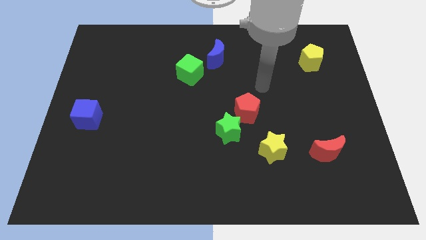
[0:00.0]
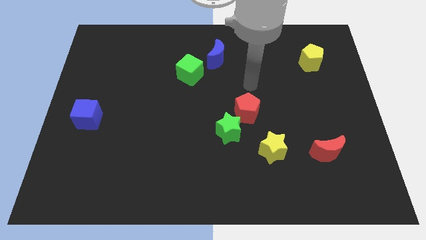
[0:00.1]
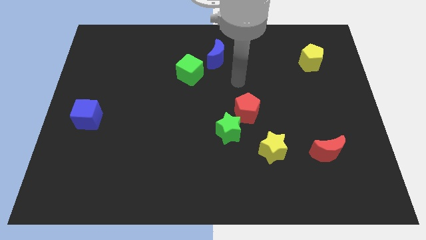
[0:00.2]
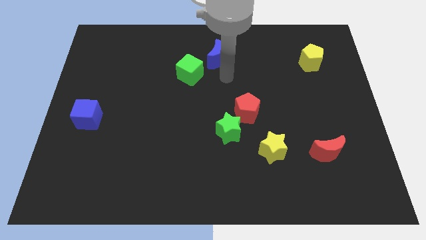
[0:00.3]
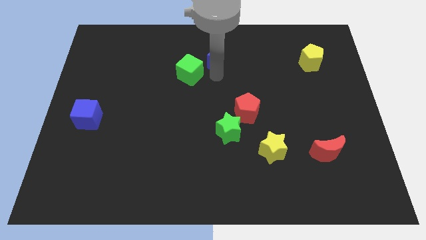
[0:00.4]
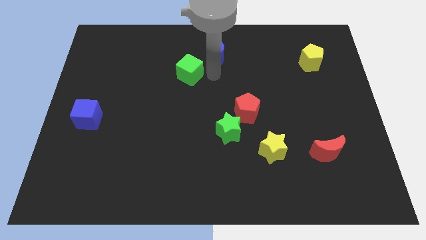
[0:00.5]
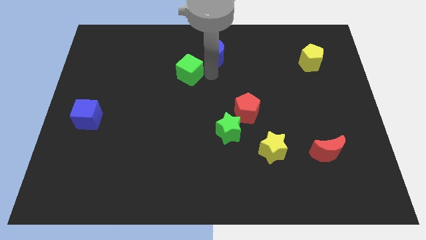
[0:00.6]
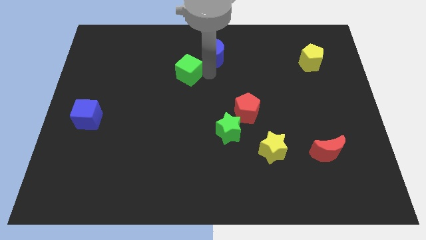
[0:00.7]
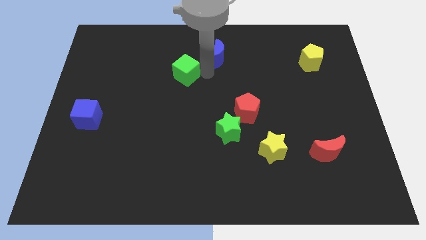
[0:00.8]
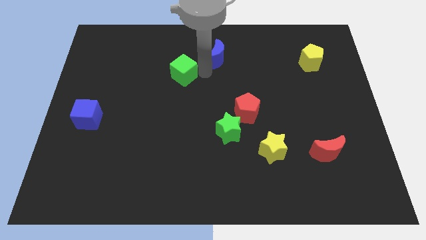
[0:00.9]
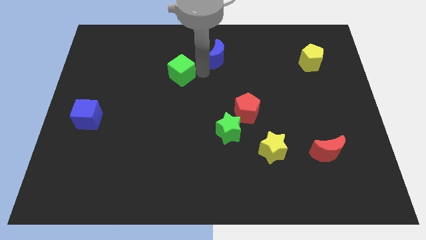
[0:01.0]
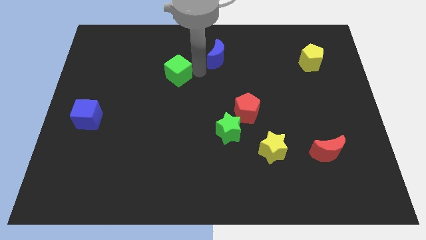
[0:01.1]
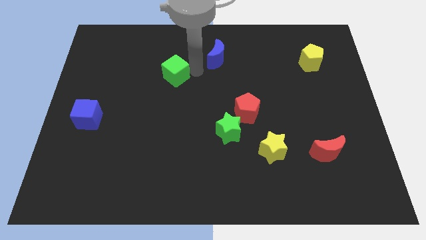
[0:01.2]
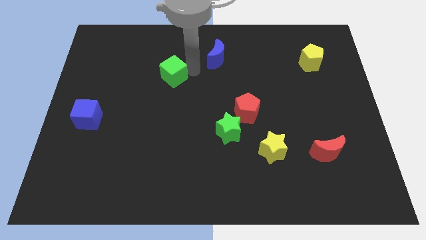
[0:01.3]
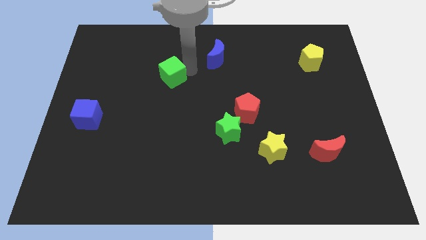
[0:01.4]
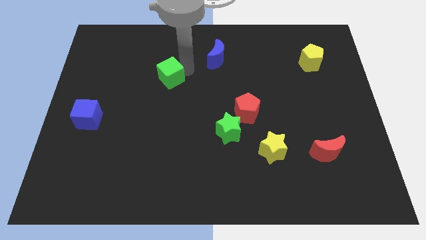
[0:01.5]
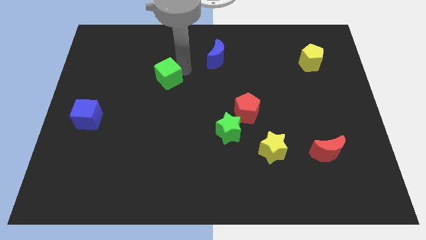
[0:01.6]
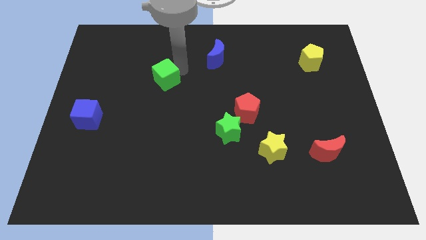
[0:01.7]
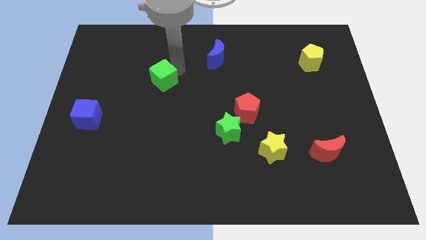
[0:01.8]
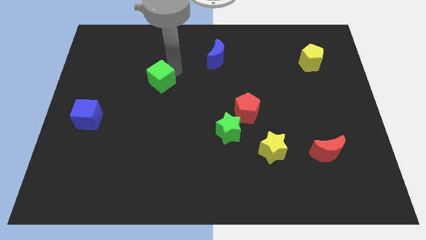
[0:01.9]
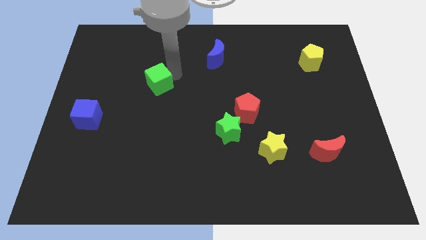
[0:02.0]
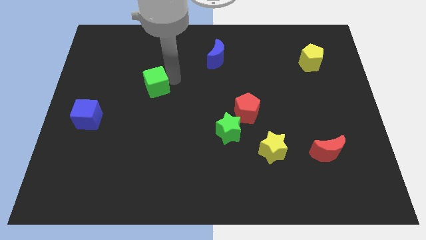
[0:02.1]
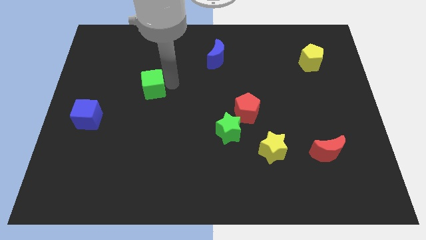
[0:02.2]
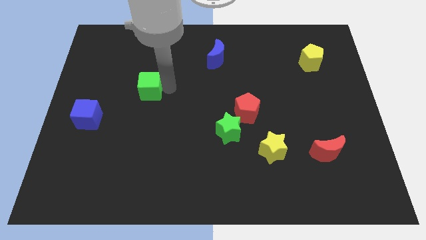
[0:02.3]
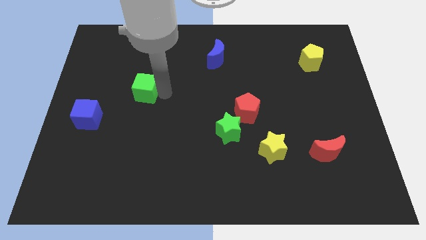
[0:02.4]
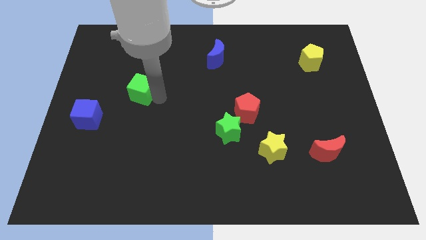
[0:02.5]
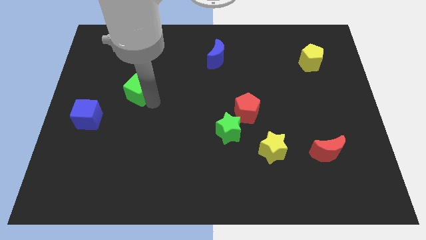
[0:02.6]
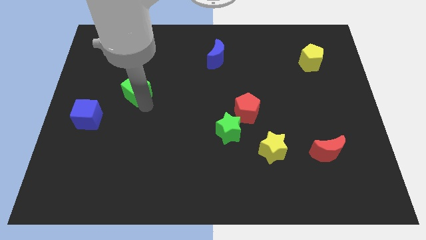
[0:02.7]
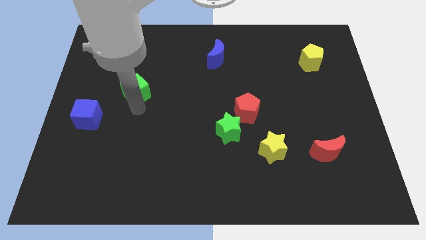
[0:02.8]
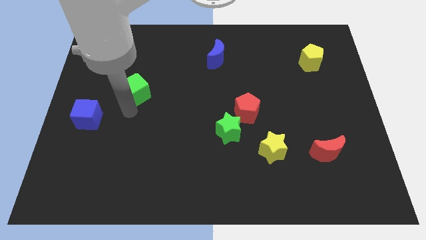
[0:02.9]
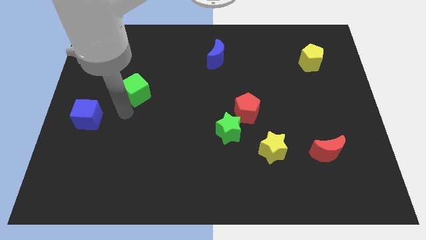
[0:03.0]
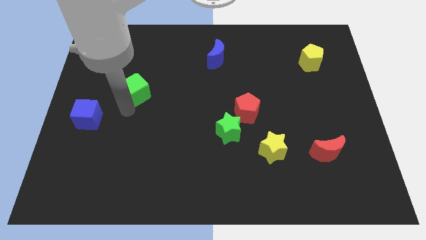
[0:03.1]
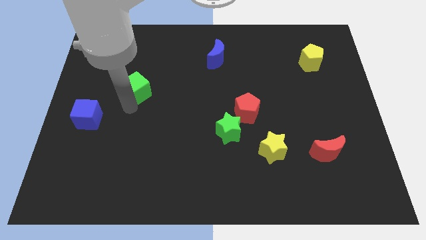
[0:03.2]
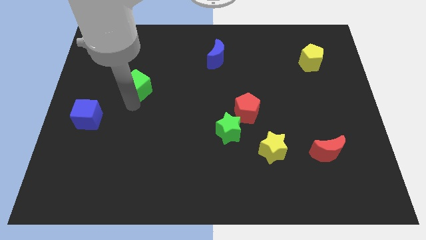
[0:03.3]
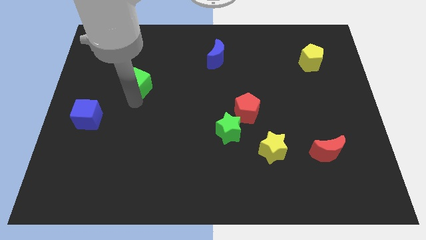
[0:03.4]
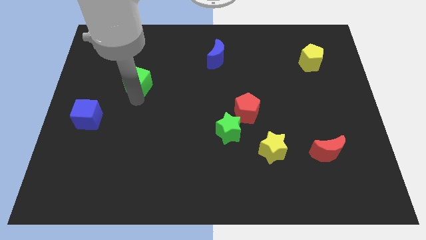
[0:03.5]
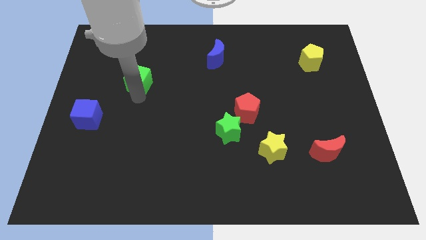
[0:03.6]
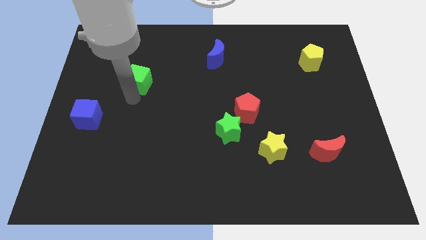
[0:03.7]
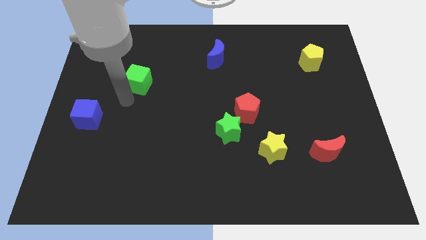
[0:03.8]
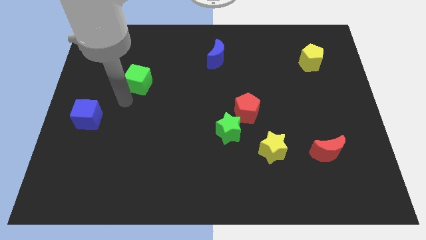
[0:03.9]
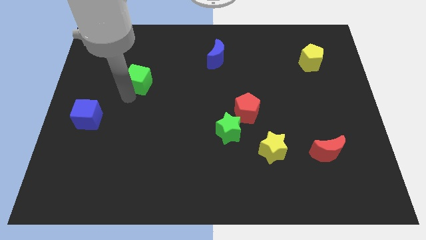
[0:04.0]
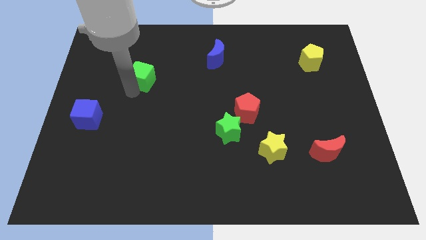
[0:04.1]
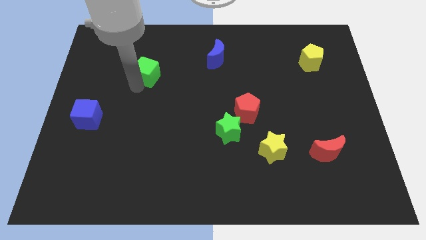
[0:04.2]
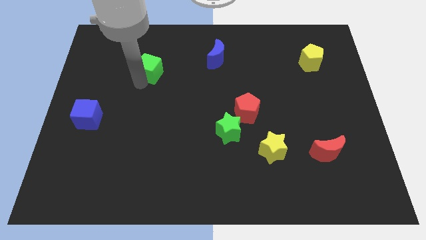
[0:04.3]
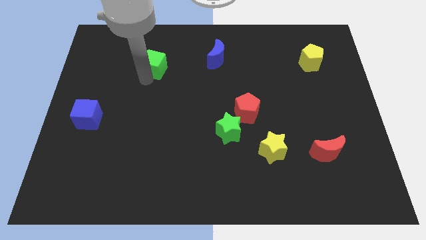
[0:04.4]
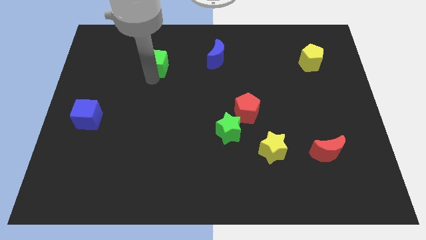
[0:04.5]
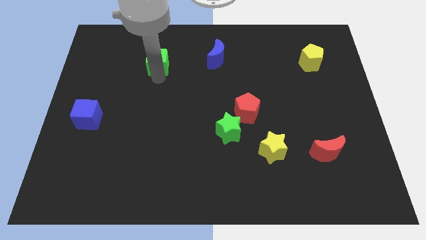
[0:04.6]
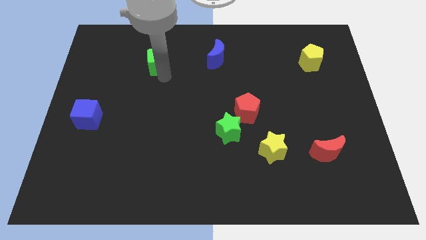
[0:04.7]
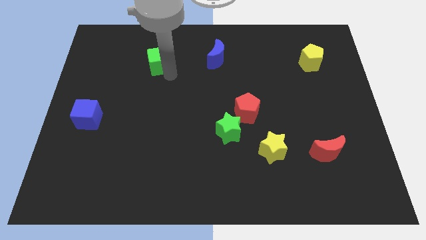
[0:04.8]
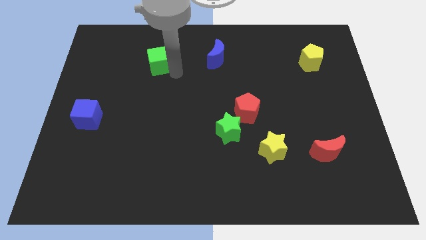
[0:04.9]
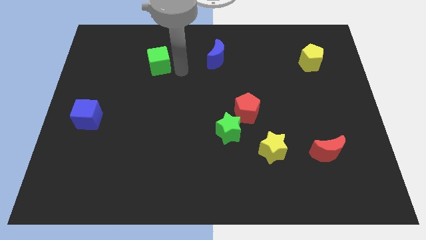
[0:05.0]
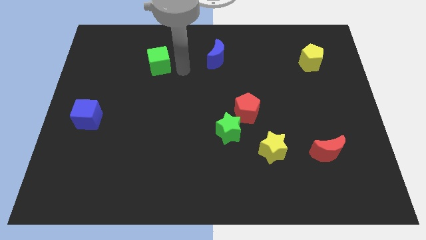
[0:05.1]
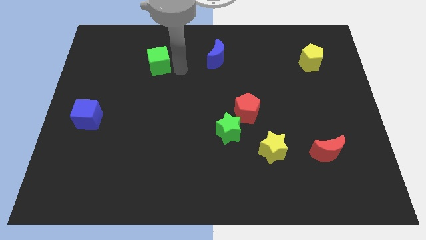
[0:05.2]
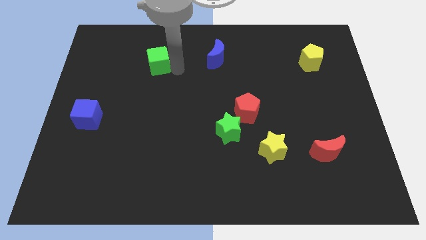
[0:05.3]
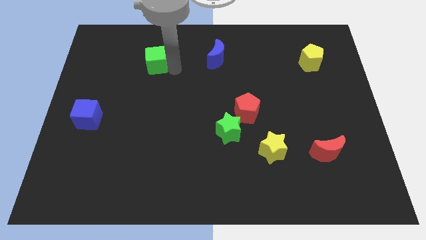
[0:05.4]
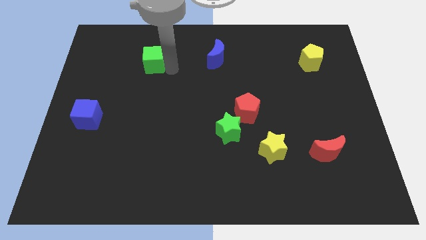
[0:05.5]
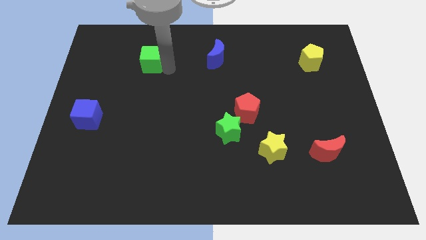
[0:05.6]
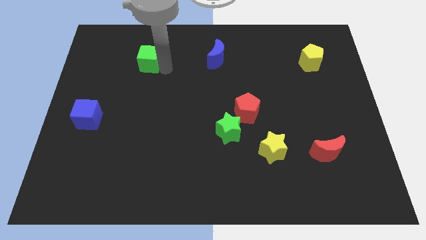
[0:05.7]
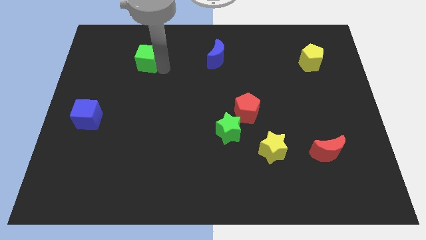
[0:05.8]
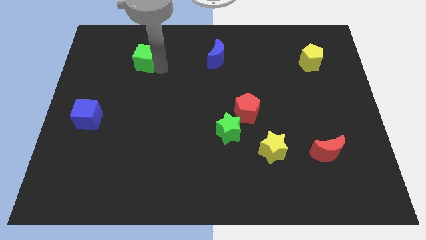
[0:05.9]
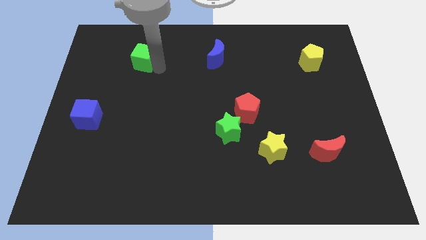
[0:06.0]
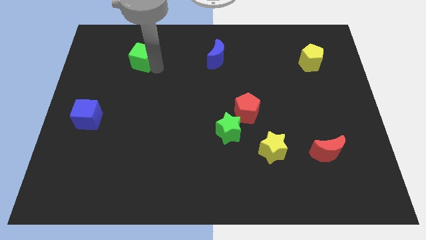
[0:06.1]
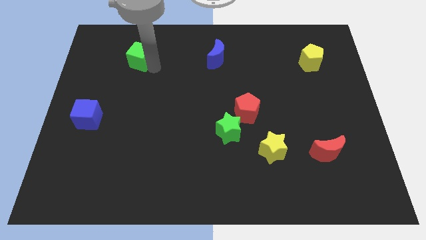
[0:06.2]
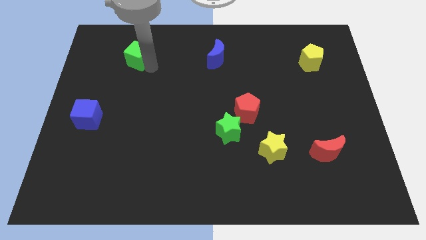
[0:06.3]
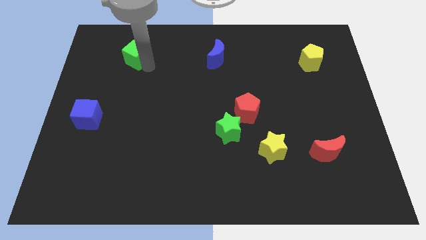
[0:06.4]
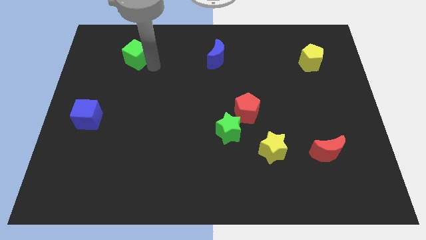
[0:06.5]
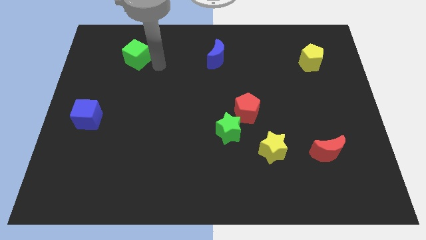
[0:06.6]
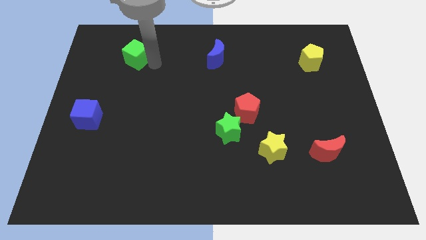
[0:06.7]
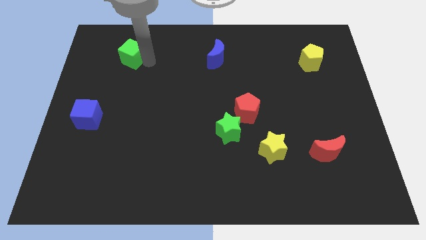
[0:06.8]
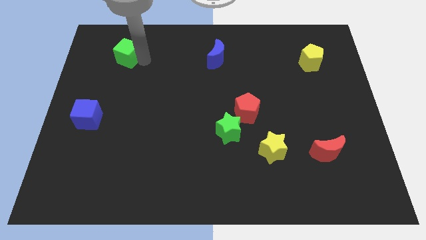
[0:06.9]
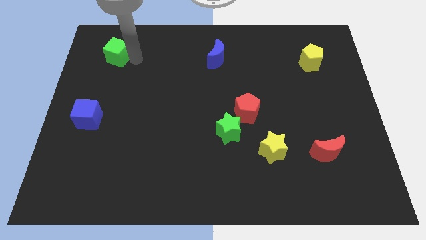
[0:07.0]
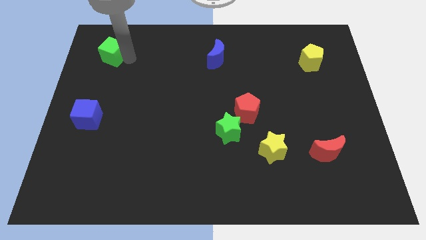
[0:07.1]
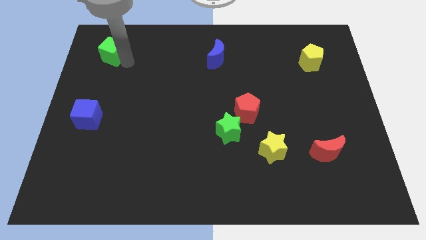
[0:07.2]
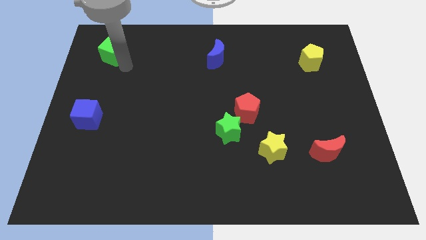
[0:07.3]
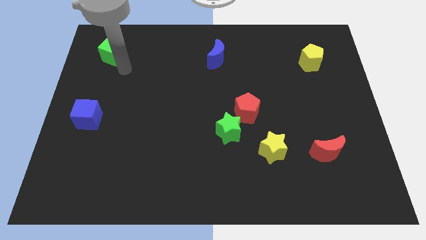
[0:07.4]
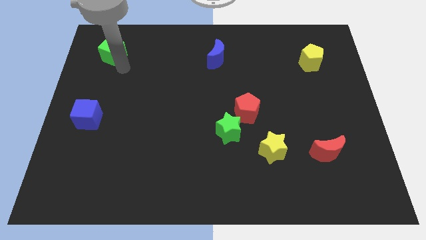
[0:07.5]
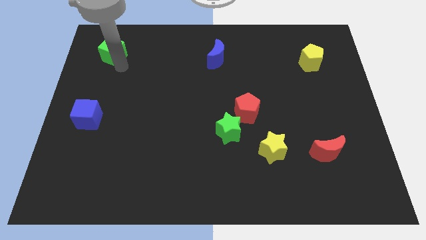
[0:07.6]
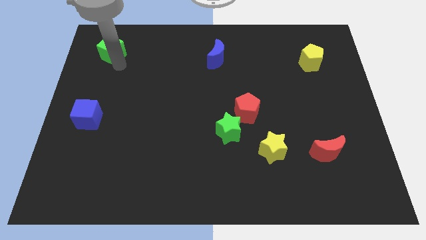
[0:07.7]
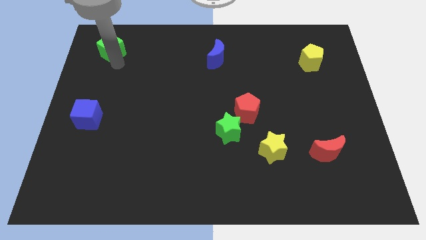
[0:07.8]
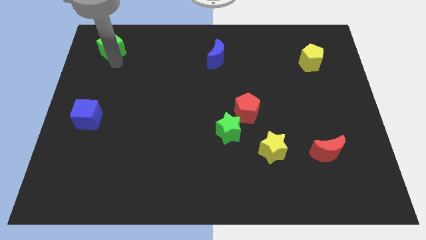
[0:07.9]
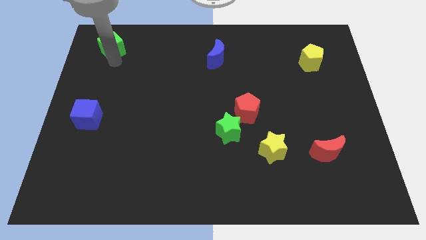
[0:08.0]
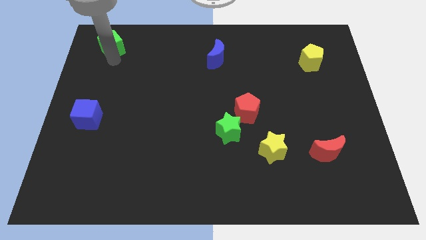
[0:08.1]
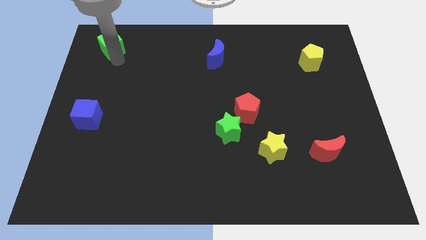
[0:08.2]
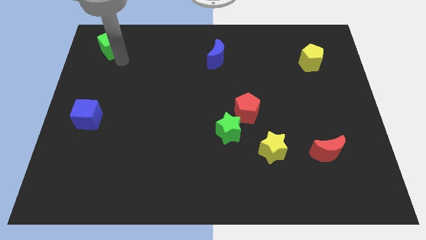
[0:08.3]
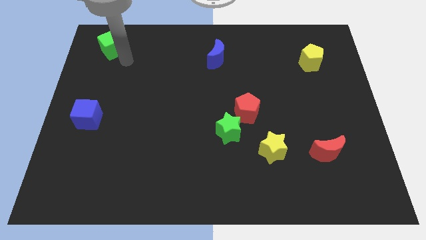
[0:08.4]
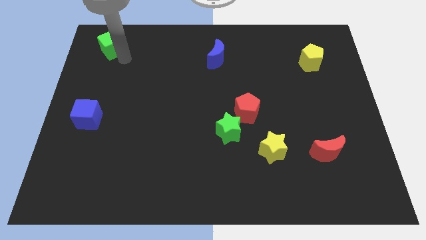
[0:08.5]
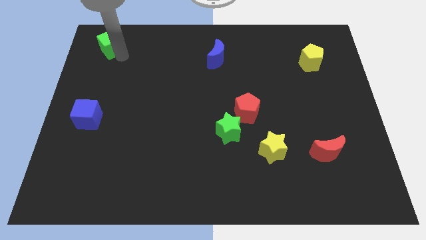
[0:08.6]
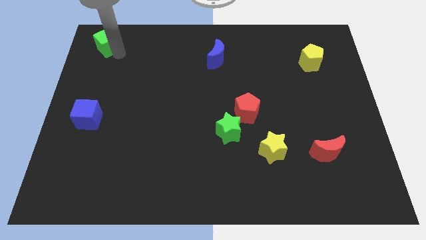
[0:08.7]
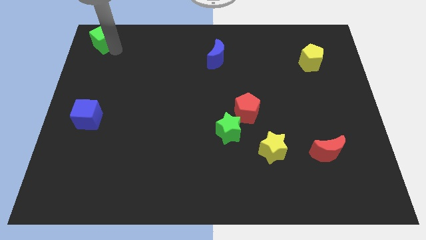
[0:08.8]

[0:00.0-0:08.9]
push the green cube to the upper left corner
